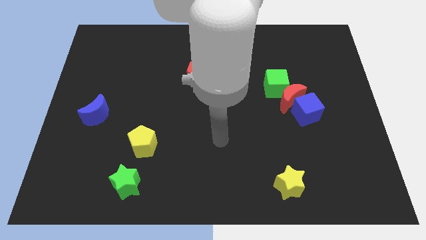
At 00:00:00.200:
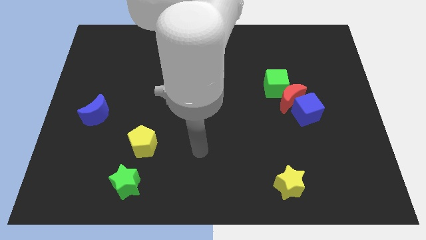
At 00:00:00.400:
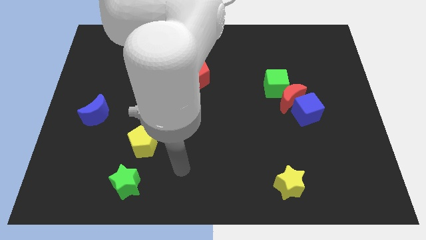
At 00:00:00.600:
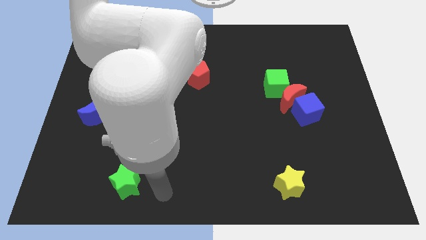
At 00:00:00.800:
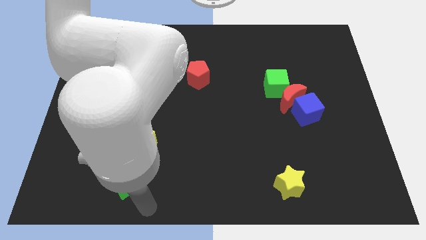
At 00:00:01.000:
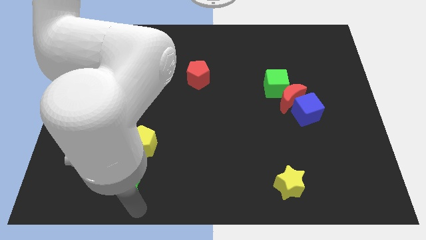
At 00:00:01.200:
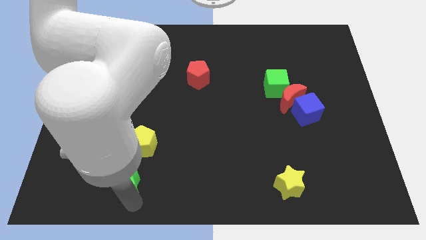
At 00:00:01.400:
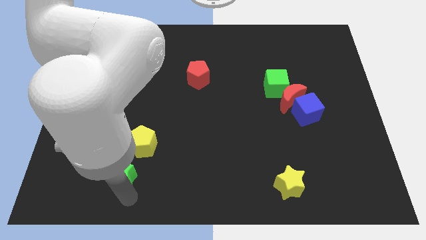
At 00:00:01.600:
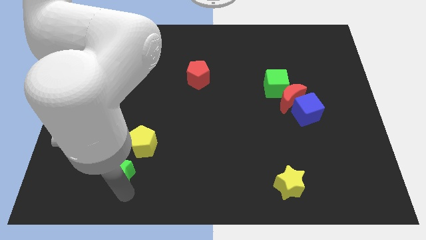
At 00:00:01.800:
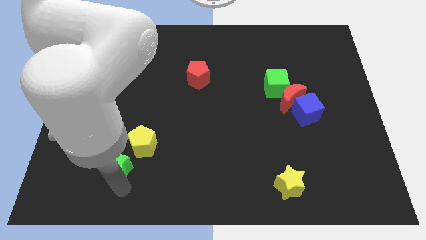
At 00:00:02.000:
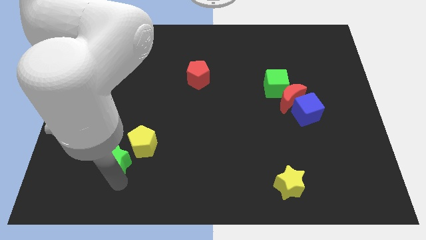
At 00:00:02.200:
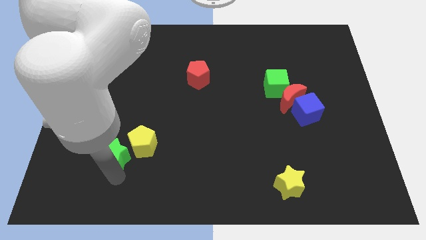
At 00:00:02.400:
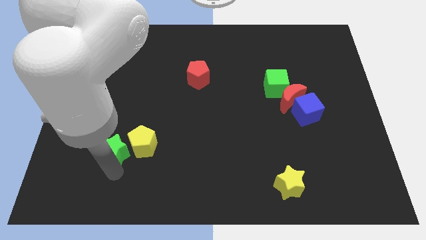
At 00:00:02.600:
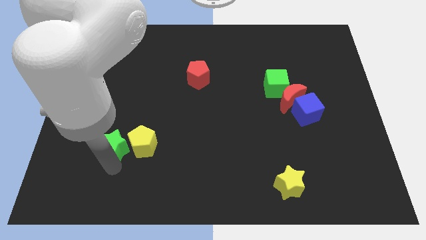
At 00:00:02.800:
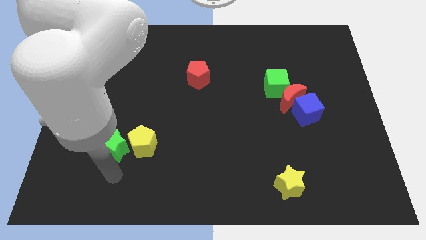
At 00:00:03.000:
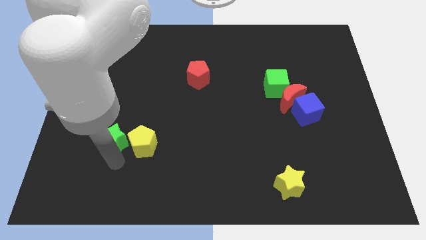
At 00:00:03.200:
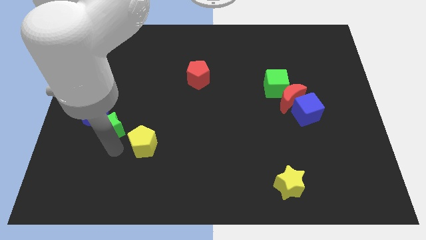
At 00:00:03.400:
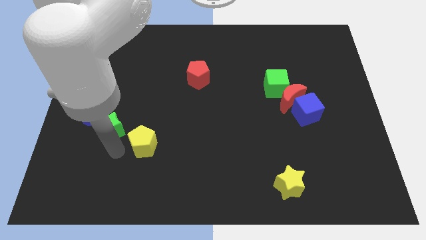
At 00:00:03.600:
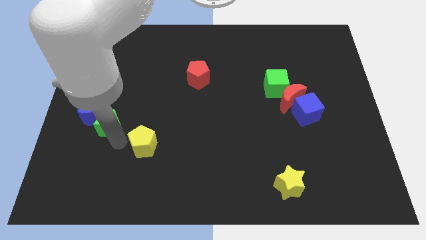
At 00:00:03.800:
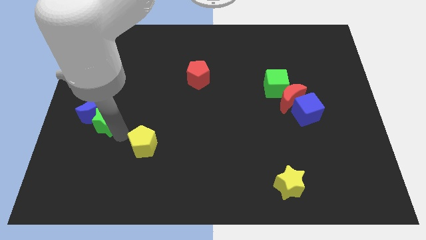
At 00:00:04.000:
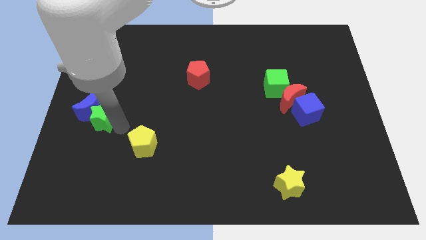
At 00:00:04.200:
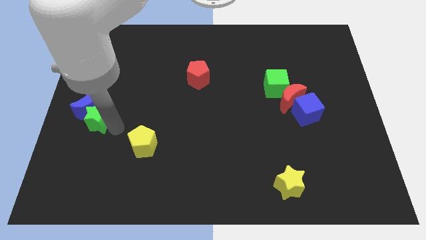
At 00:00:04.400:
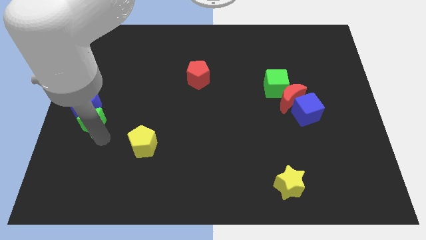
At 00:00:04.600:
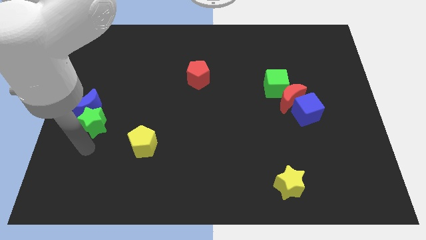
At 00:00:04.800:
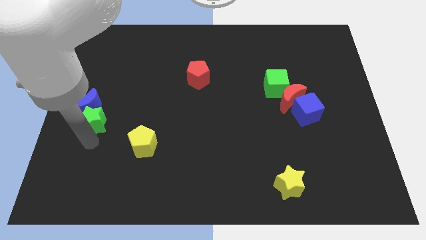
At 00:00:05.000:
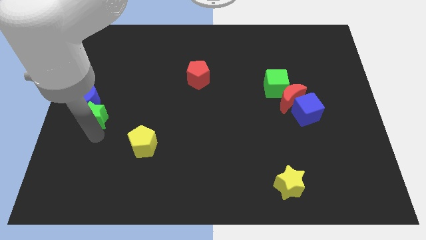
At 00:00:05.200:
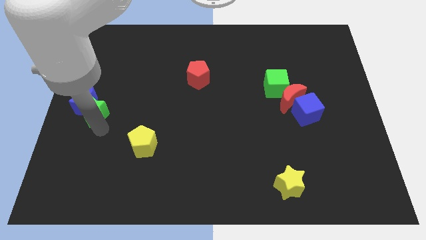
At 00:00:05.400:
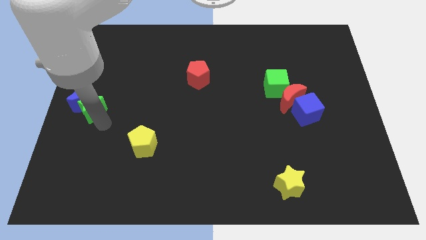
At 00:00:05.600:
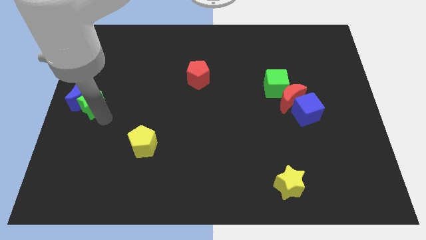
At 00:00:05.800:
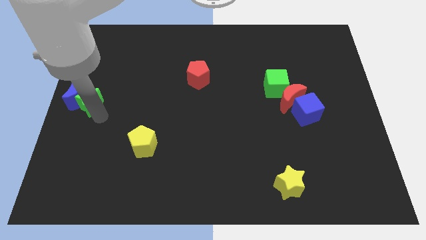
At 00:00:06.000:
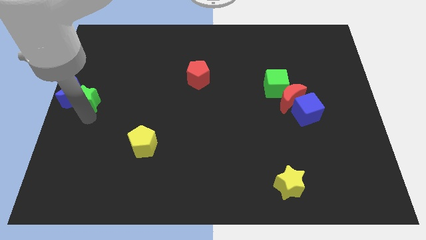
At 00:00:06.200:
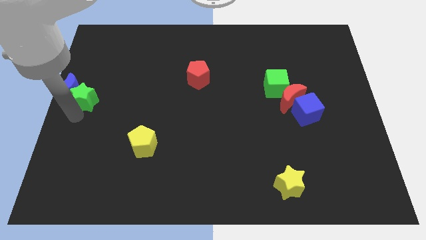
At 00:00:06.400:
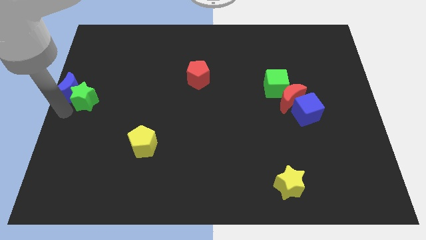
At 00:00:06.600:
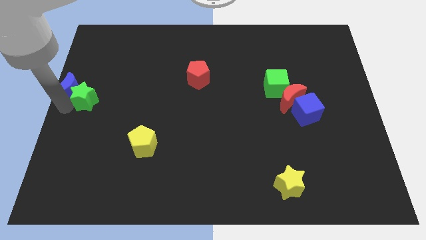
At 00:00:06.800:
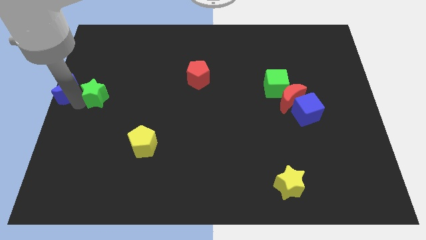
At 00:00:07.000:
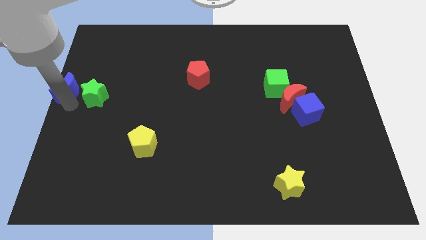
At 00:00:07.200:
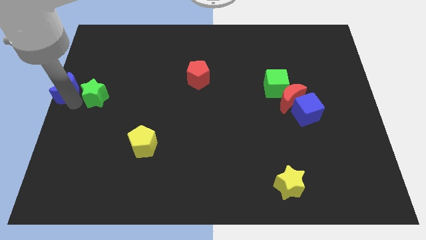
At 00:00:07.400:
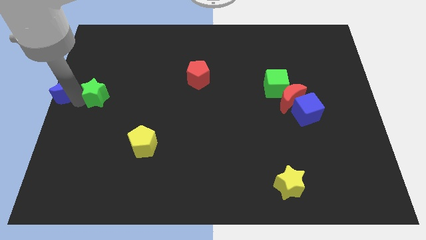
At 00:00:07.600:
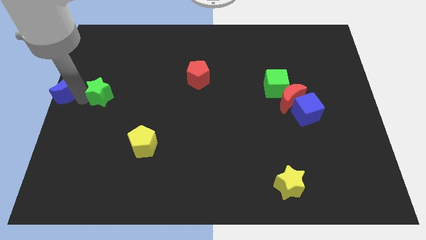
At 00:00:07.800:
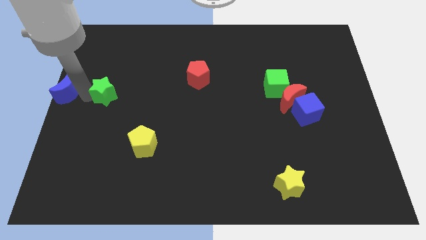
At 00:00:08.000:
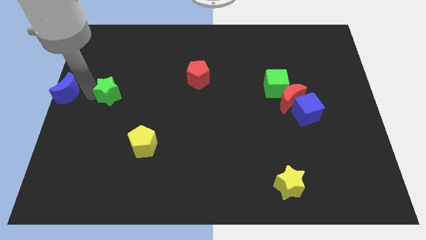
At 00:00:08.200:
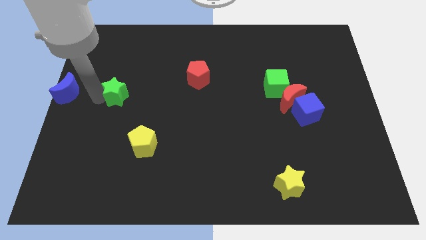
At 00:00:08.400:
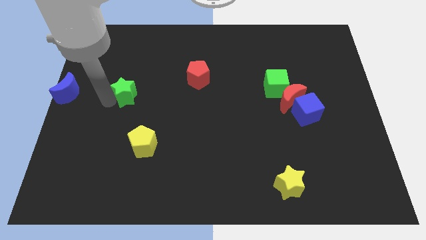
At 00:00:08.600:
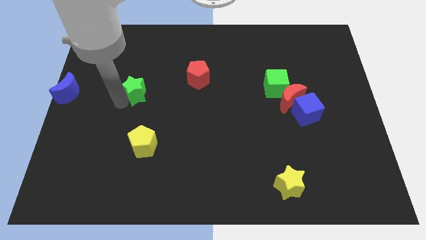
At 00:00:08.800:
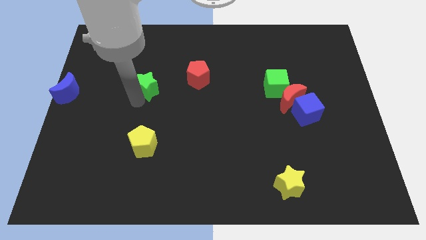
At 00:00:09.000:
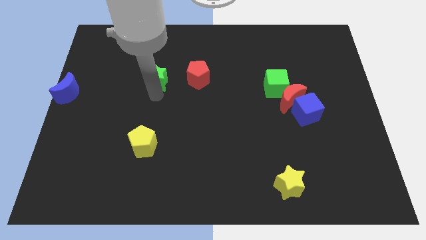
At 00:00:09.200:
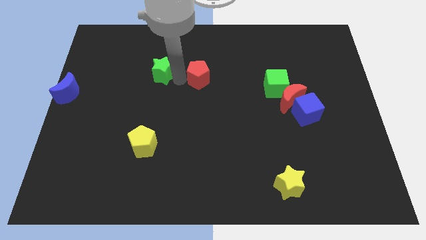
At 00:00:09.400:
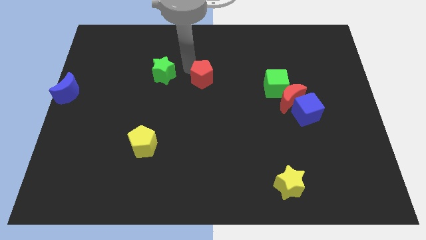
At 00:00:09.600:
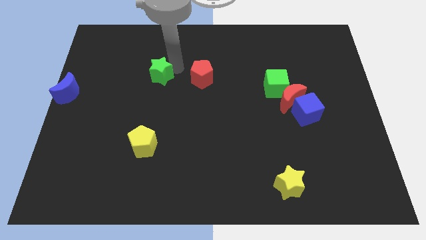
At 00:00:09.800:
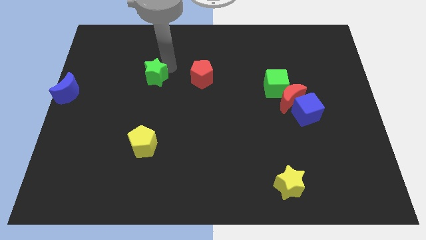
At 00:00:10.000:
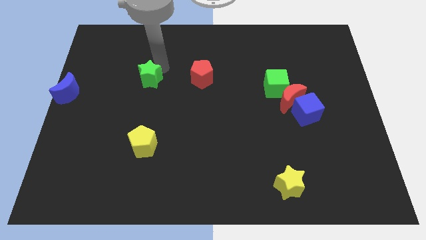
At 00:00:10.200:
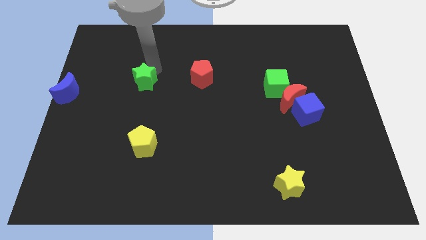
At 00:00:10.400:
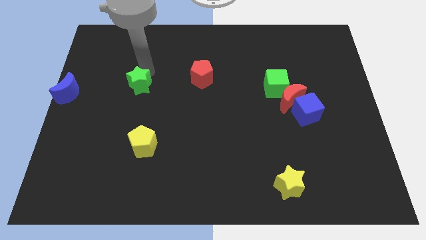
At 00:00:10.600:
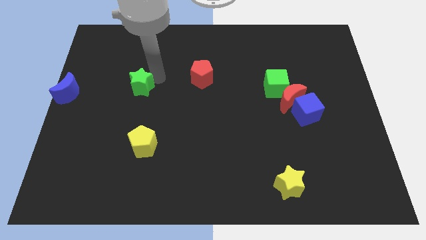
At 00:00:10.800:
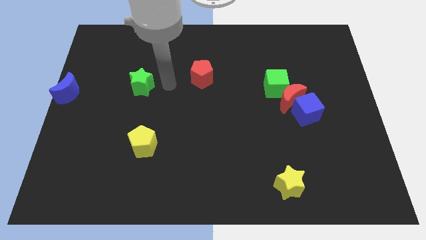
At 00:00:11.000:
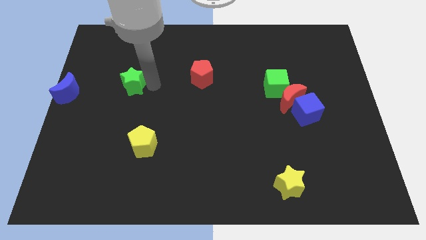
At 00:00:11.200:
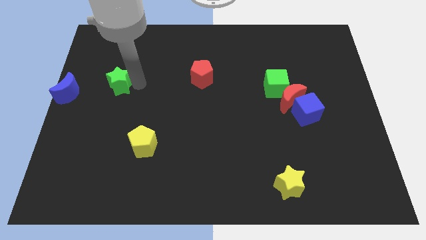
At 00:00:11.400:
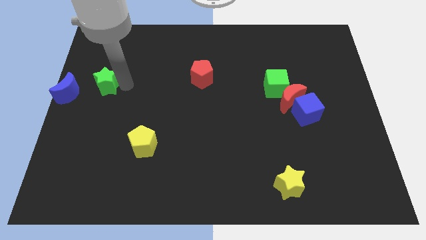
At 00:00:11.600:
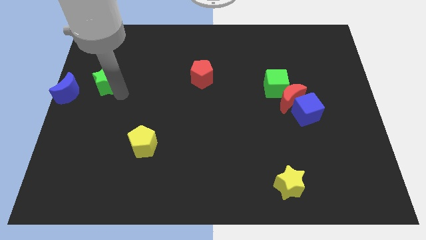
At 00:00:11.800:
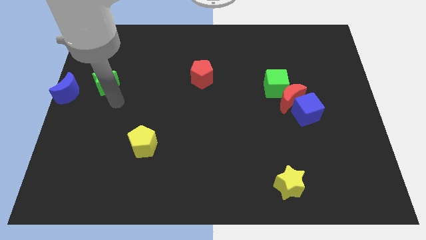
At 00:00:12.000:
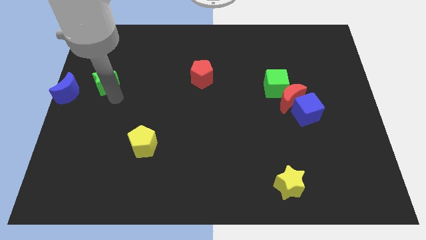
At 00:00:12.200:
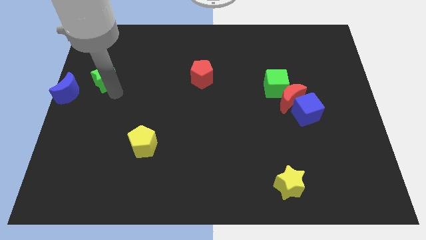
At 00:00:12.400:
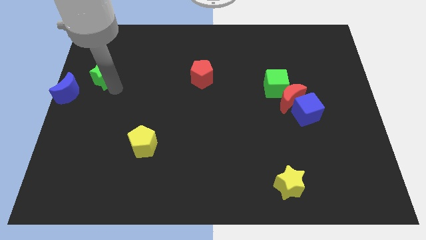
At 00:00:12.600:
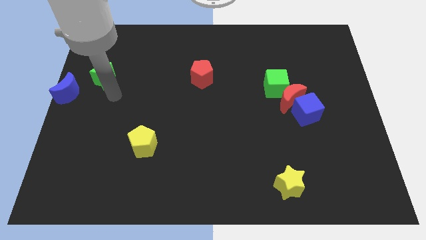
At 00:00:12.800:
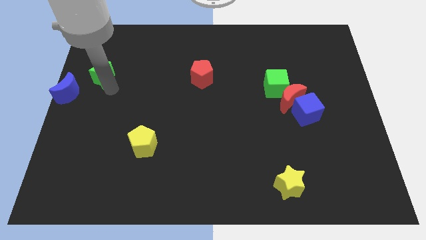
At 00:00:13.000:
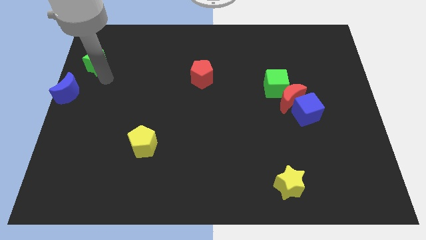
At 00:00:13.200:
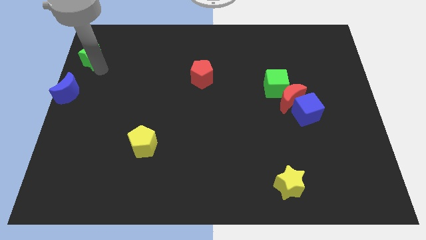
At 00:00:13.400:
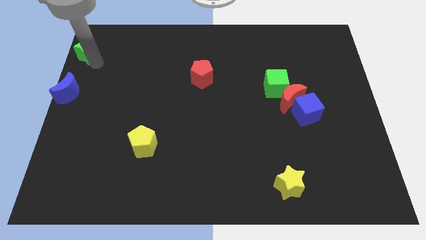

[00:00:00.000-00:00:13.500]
slide the green star to the top left of the board
